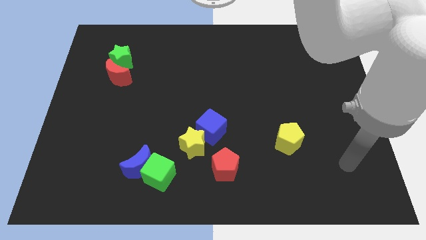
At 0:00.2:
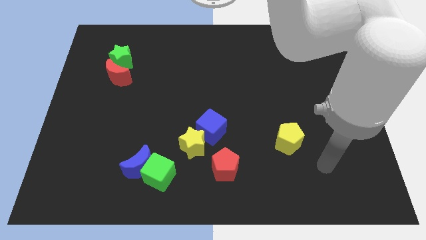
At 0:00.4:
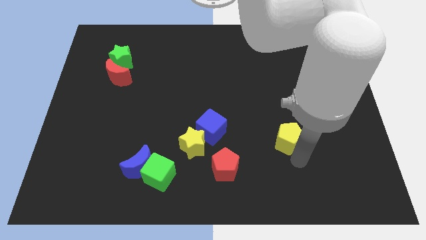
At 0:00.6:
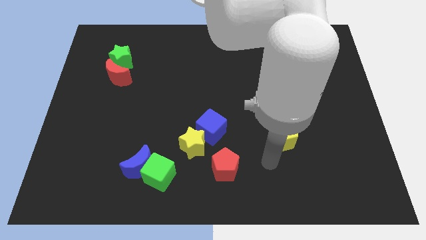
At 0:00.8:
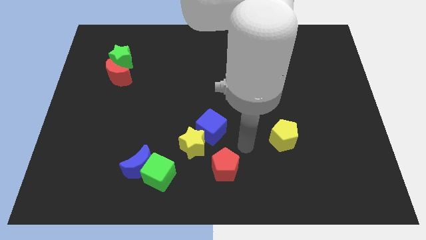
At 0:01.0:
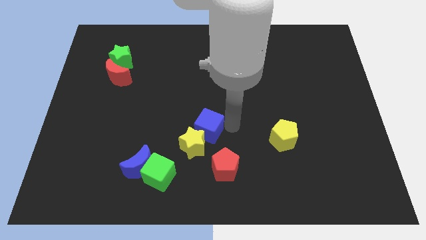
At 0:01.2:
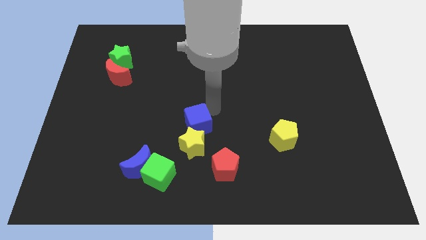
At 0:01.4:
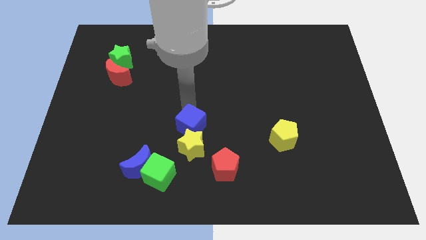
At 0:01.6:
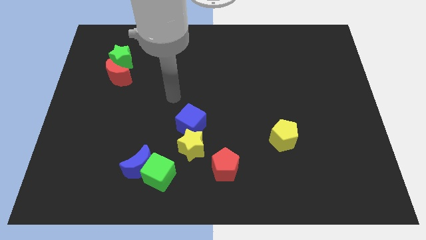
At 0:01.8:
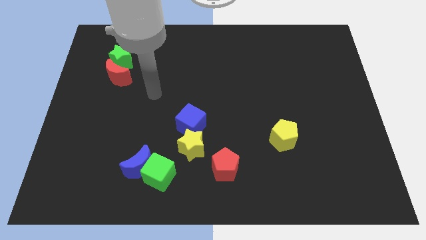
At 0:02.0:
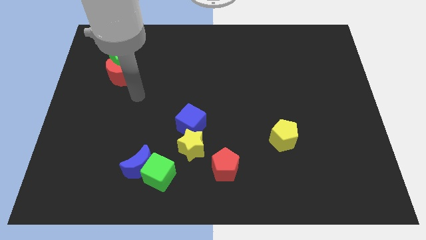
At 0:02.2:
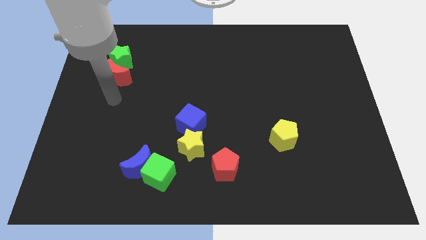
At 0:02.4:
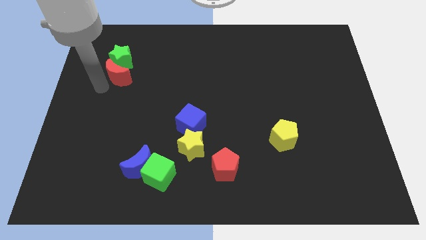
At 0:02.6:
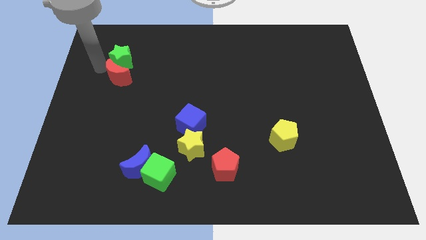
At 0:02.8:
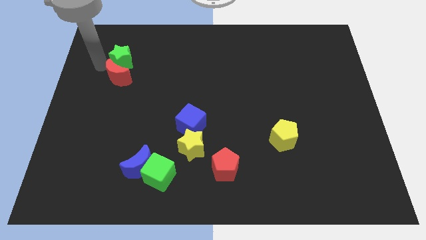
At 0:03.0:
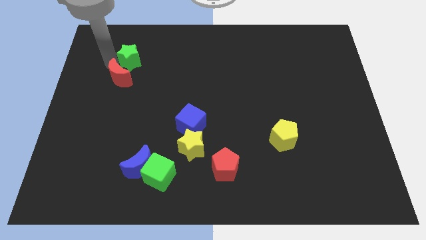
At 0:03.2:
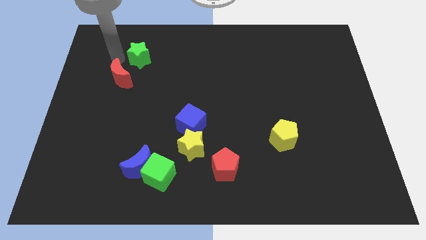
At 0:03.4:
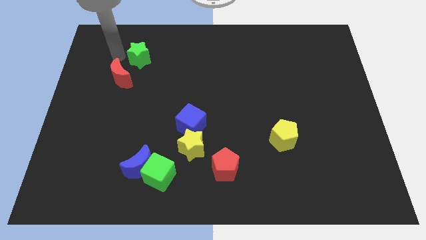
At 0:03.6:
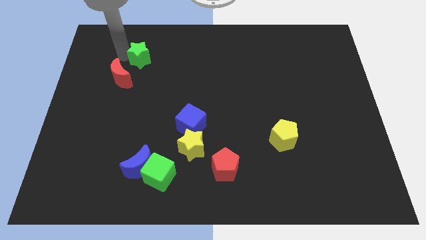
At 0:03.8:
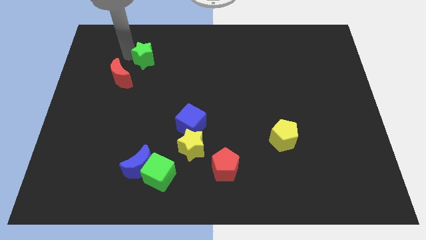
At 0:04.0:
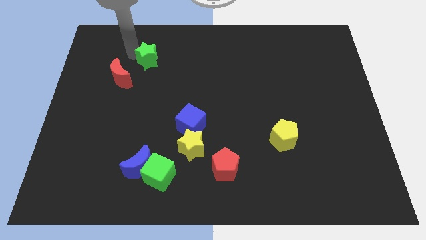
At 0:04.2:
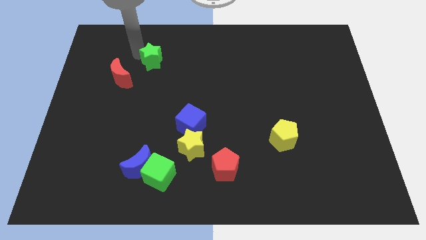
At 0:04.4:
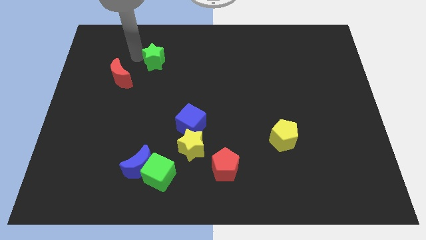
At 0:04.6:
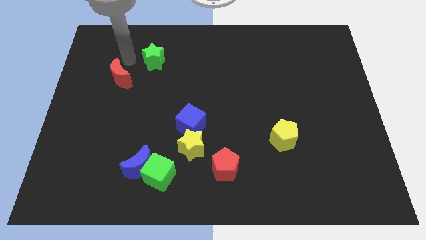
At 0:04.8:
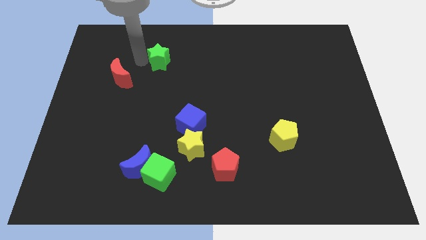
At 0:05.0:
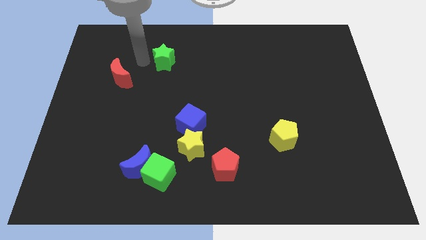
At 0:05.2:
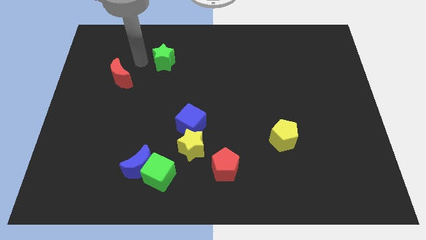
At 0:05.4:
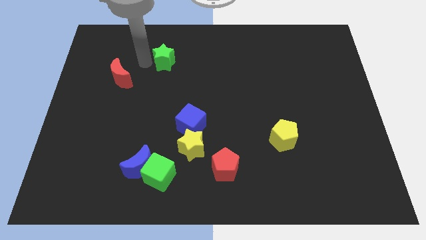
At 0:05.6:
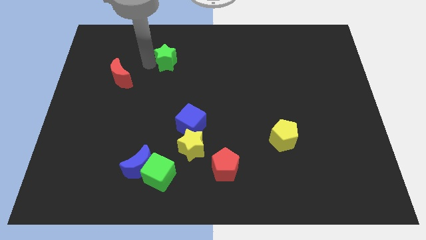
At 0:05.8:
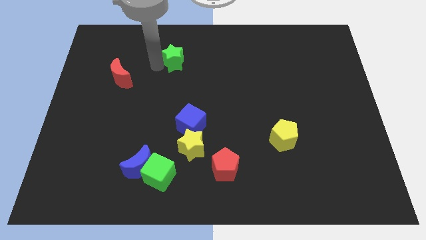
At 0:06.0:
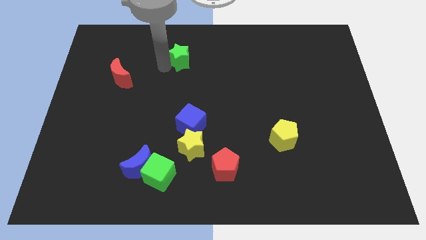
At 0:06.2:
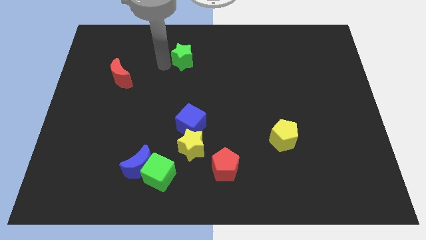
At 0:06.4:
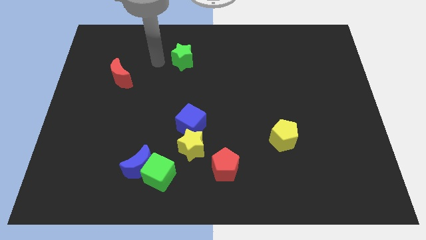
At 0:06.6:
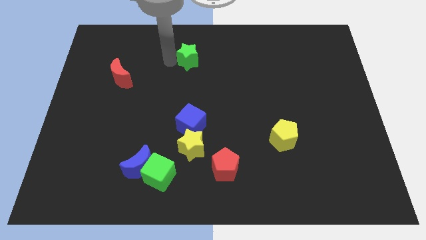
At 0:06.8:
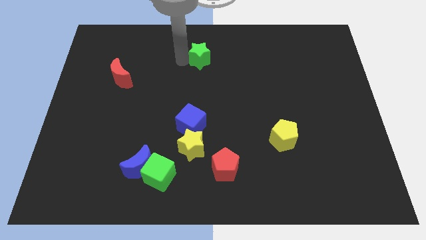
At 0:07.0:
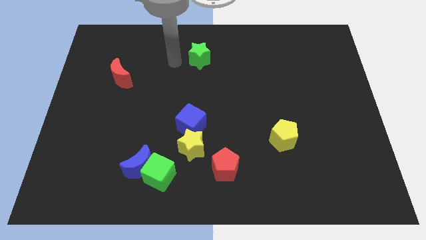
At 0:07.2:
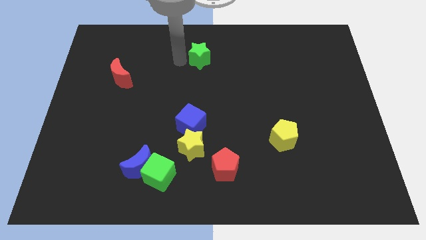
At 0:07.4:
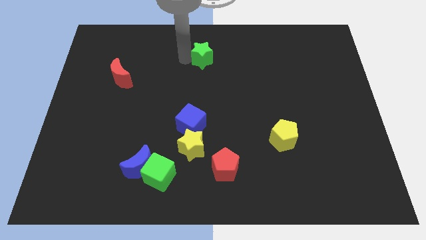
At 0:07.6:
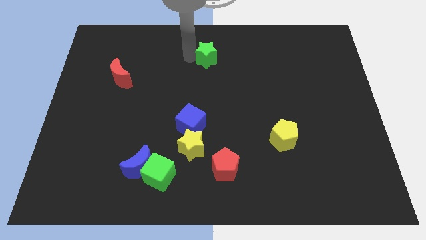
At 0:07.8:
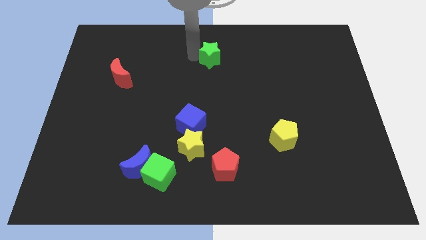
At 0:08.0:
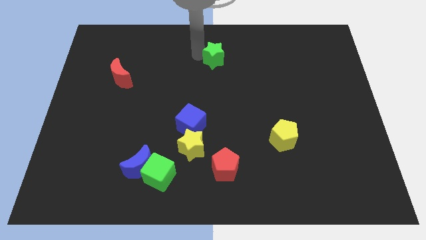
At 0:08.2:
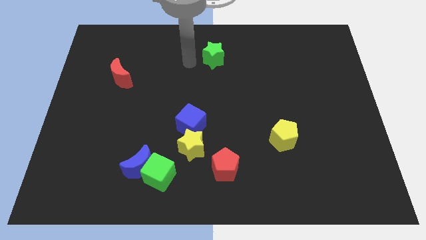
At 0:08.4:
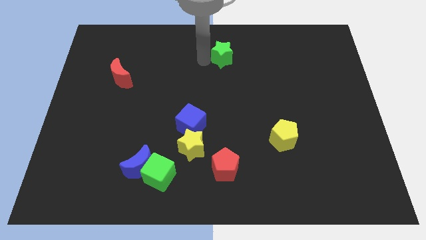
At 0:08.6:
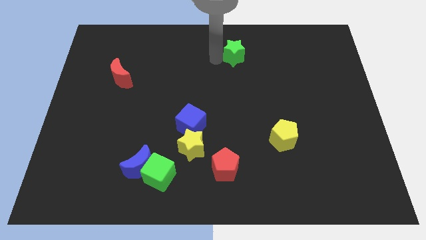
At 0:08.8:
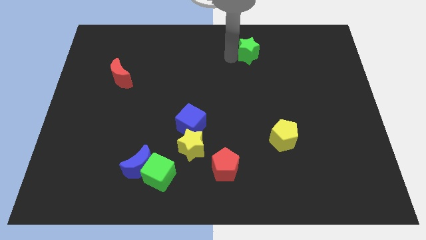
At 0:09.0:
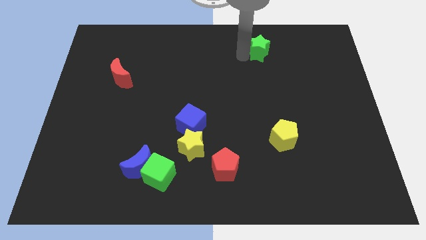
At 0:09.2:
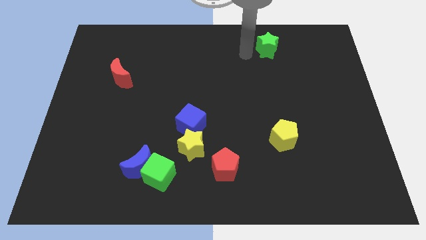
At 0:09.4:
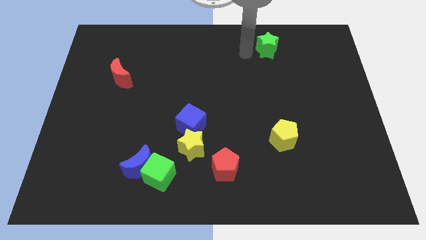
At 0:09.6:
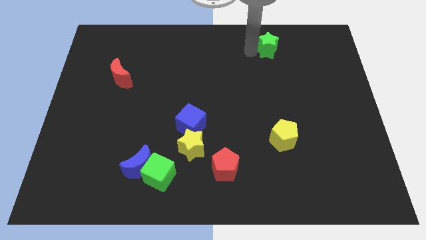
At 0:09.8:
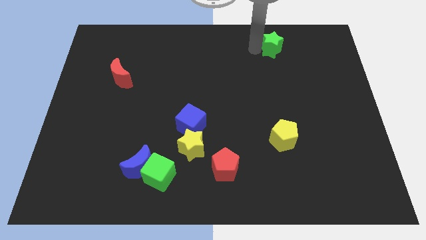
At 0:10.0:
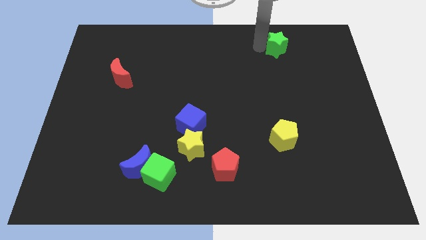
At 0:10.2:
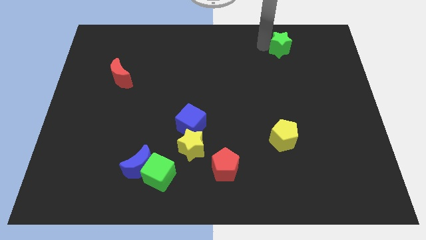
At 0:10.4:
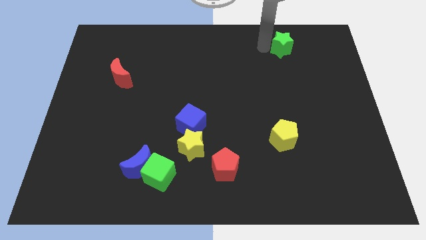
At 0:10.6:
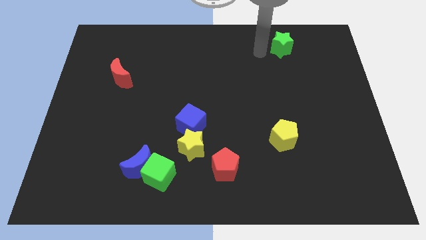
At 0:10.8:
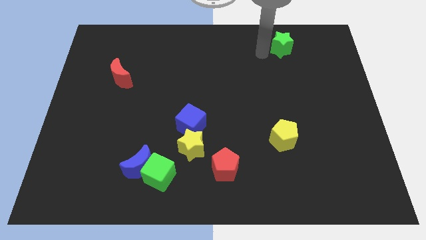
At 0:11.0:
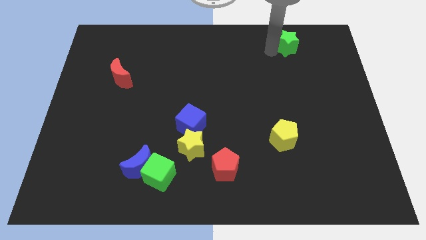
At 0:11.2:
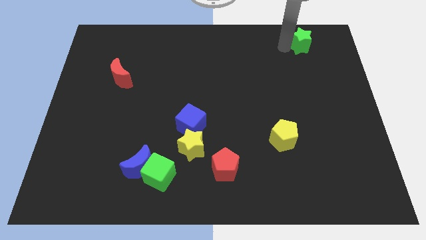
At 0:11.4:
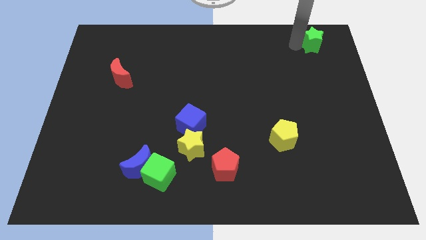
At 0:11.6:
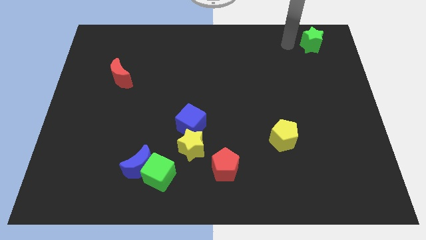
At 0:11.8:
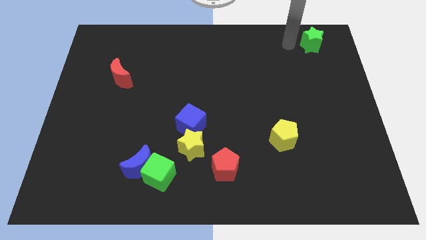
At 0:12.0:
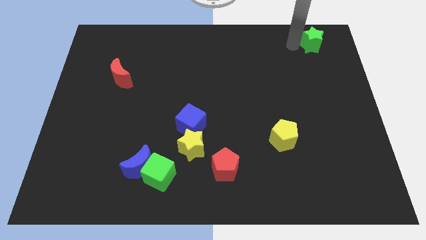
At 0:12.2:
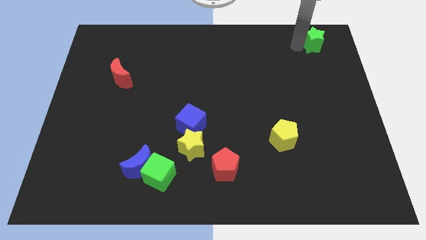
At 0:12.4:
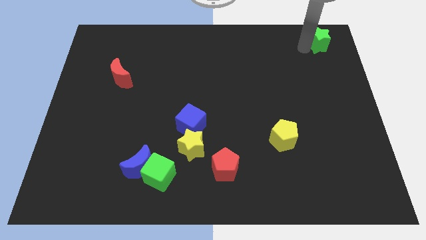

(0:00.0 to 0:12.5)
move the green star to the top right corner
